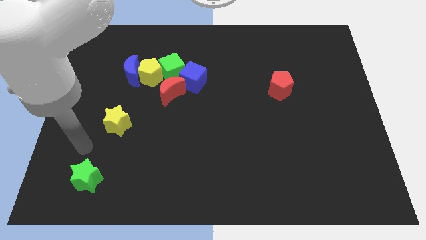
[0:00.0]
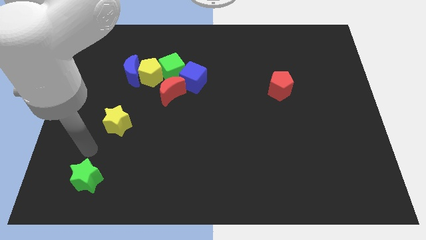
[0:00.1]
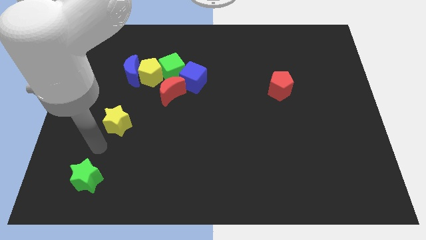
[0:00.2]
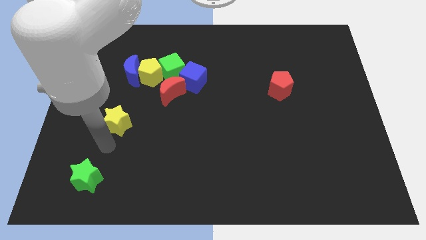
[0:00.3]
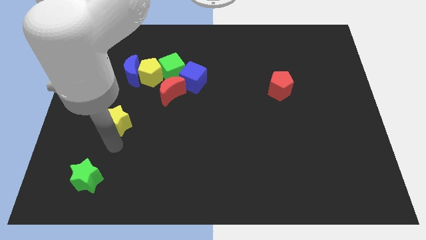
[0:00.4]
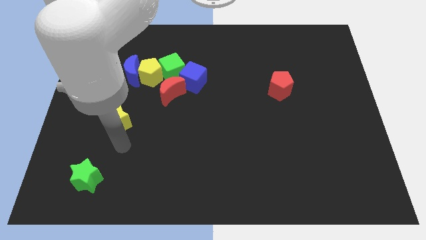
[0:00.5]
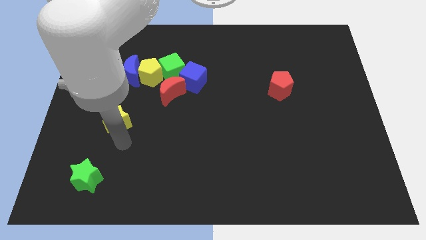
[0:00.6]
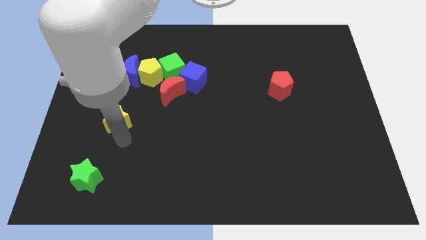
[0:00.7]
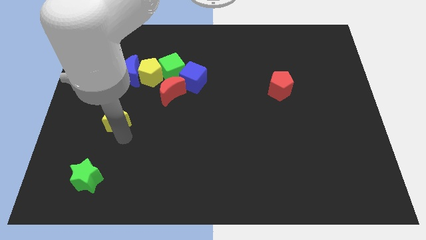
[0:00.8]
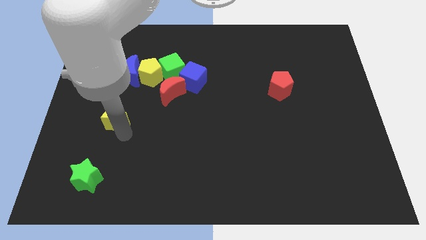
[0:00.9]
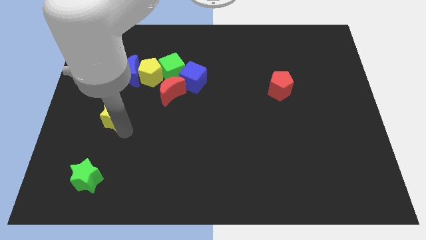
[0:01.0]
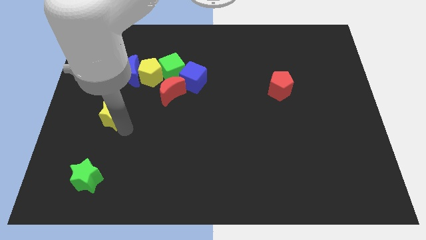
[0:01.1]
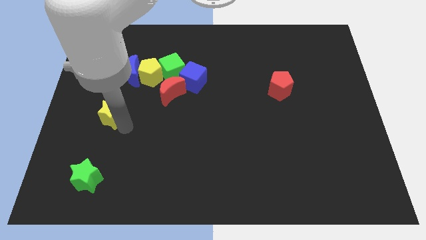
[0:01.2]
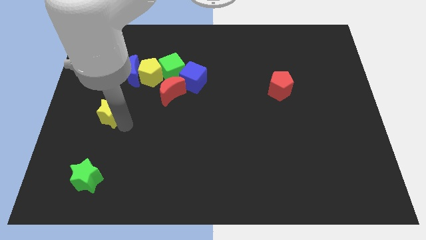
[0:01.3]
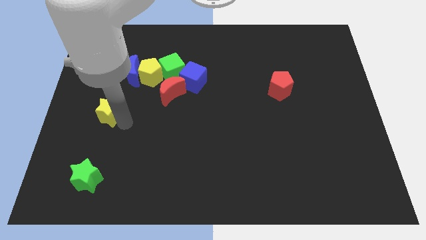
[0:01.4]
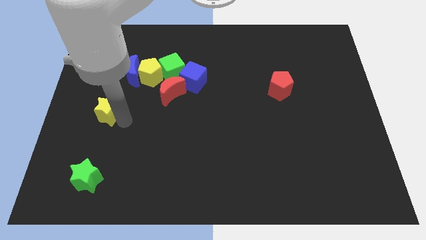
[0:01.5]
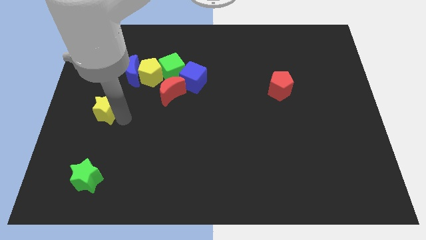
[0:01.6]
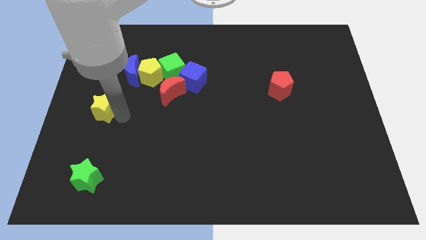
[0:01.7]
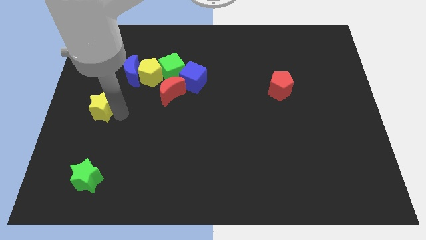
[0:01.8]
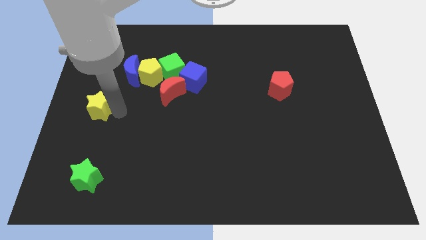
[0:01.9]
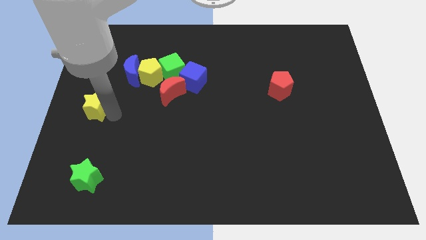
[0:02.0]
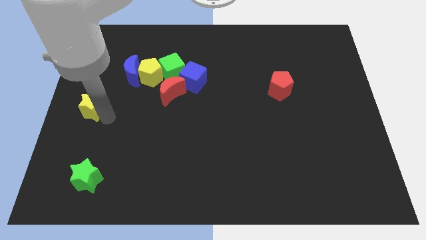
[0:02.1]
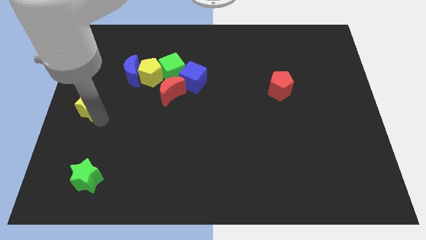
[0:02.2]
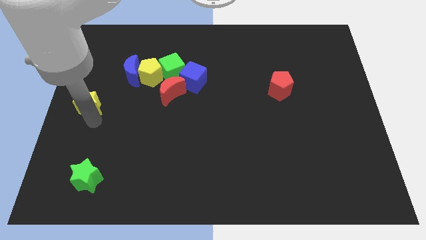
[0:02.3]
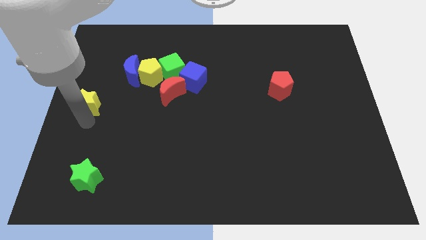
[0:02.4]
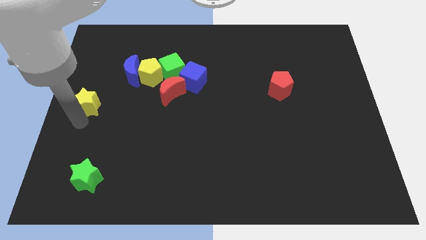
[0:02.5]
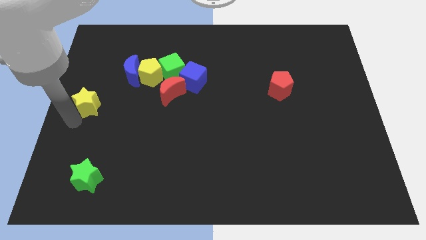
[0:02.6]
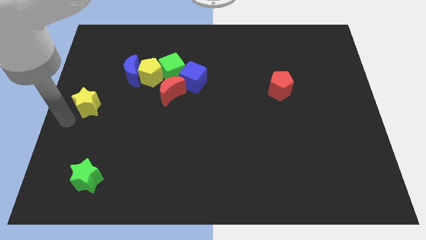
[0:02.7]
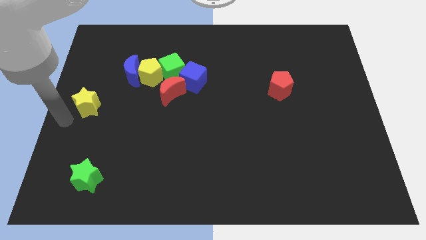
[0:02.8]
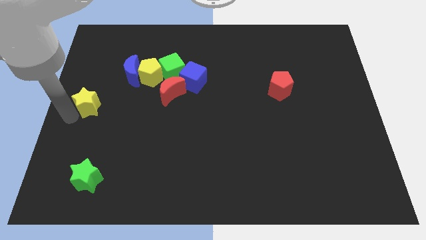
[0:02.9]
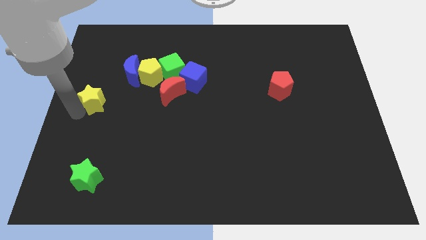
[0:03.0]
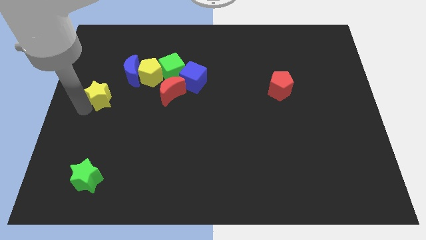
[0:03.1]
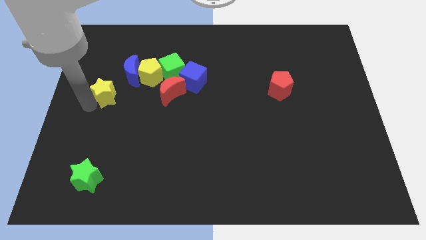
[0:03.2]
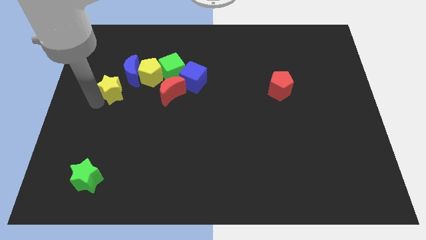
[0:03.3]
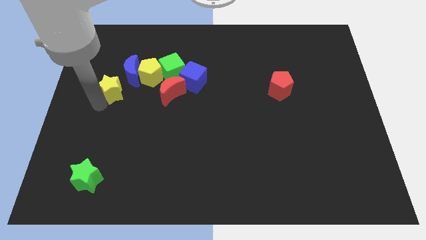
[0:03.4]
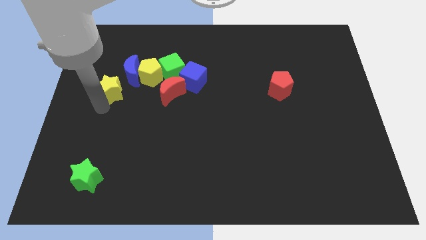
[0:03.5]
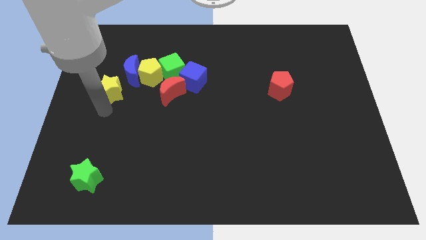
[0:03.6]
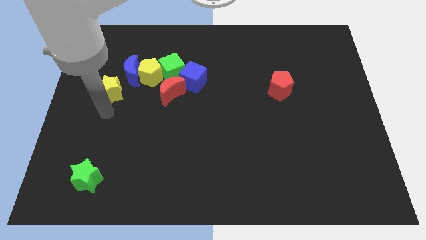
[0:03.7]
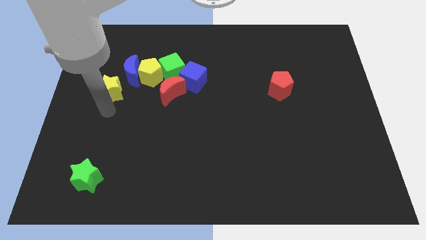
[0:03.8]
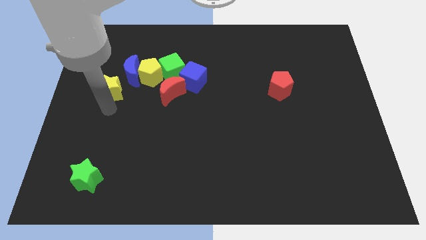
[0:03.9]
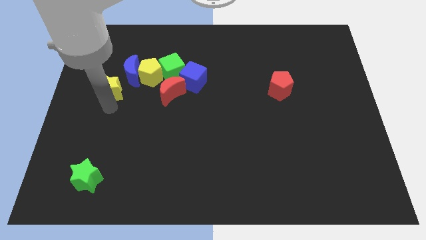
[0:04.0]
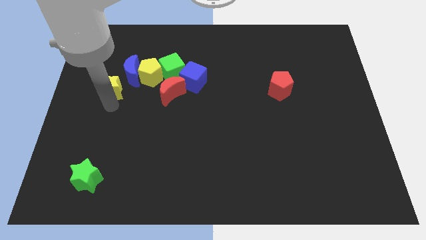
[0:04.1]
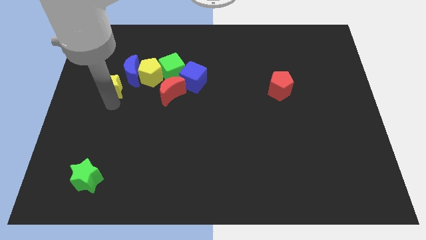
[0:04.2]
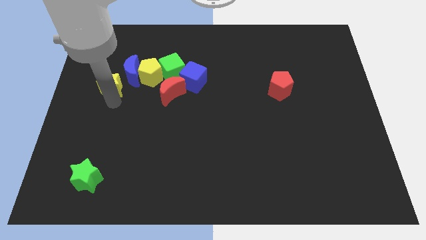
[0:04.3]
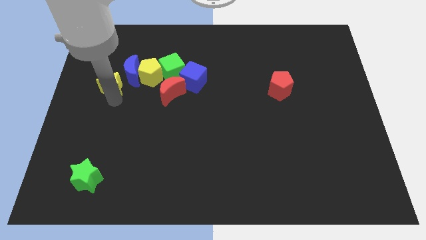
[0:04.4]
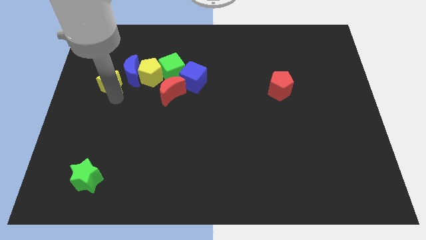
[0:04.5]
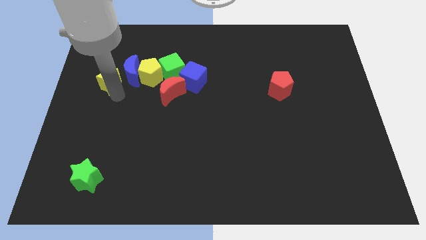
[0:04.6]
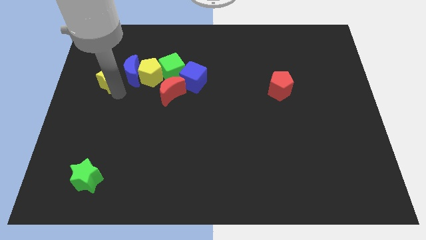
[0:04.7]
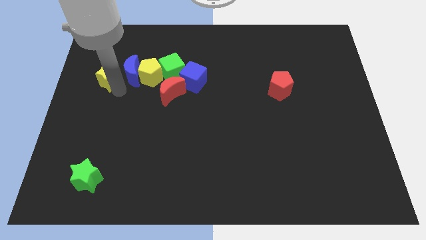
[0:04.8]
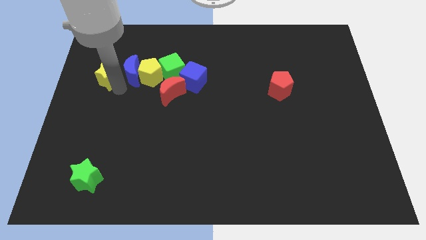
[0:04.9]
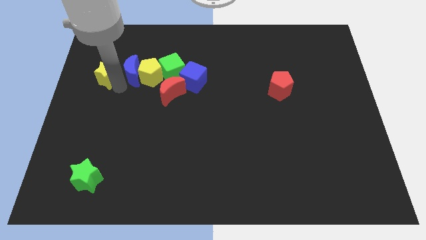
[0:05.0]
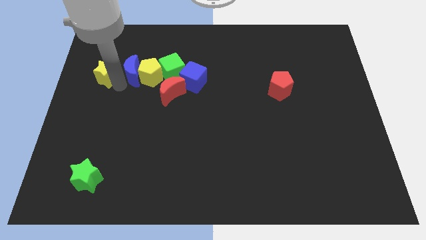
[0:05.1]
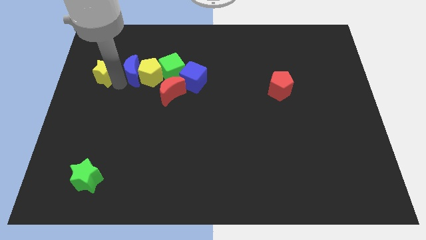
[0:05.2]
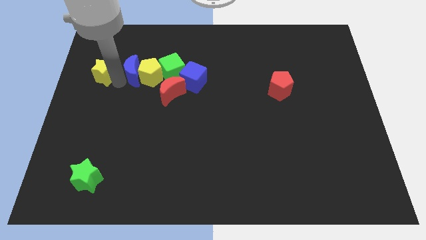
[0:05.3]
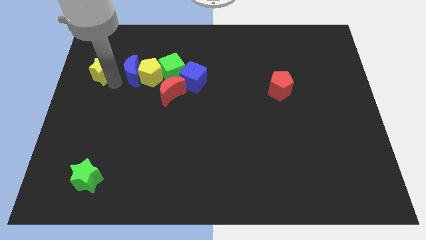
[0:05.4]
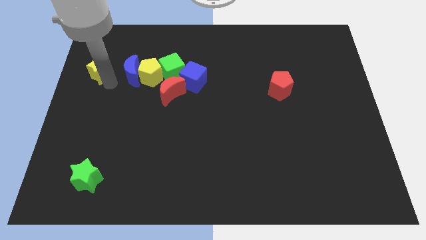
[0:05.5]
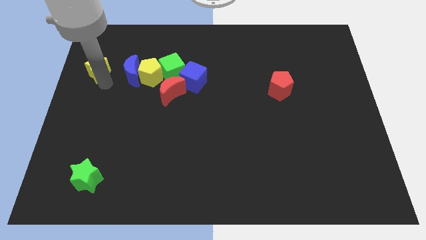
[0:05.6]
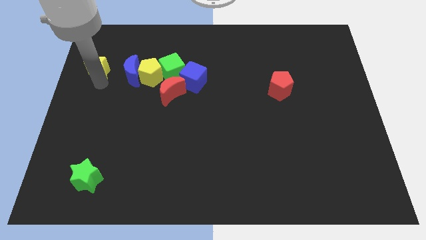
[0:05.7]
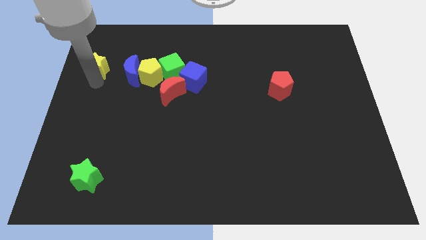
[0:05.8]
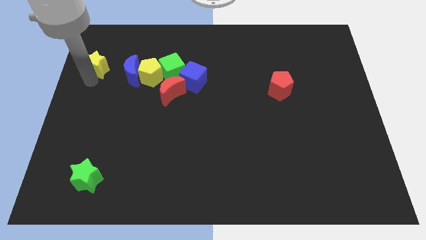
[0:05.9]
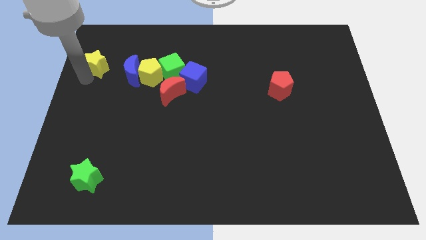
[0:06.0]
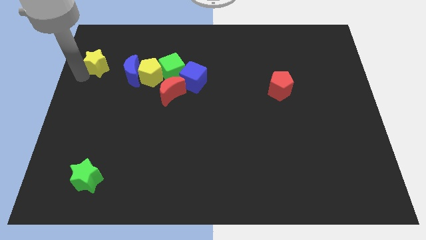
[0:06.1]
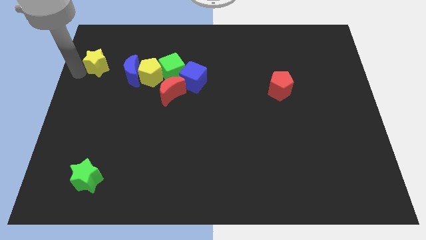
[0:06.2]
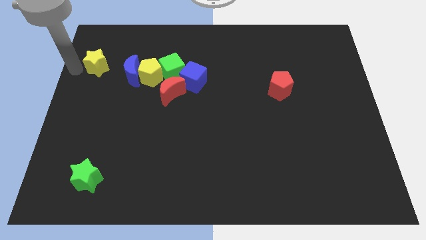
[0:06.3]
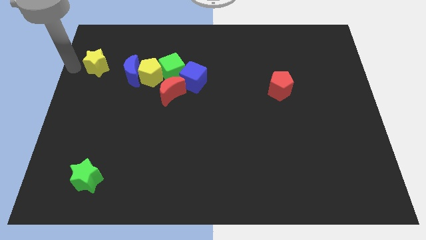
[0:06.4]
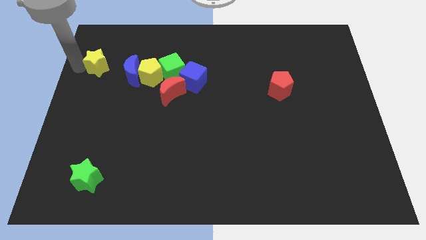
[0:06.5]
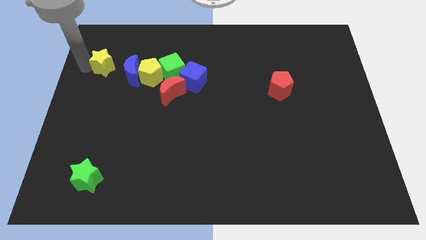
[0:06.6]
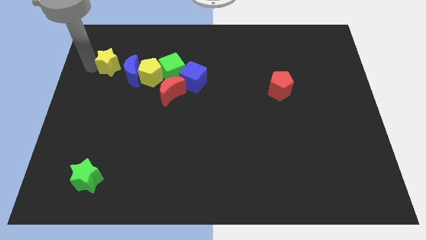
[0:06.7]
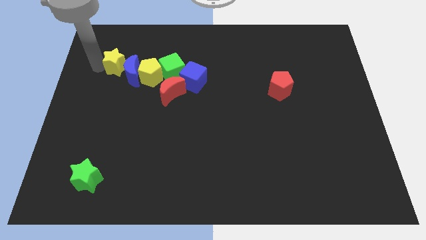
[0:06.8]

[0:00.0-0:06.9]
push the yellow star diagonally up and to the left of the yellow pentagon

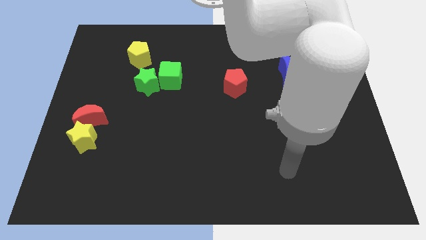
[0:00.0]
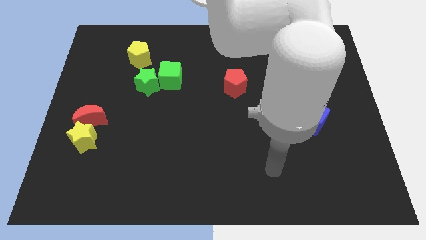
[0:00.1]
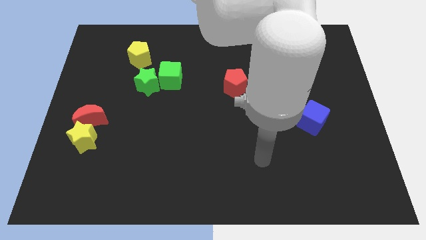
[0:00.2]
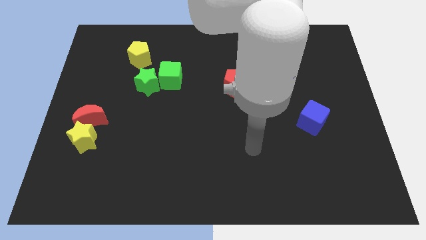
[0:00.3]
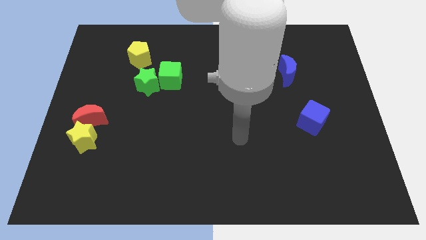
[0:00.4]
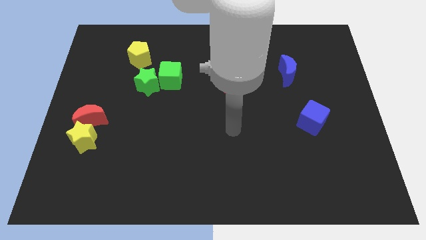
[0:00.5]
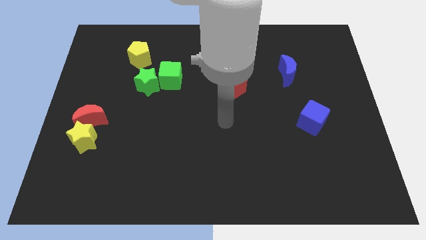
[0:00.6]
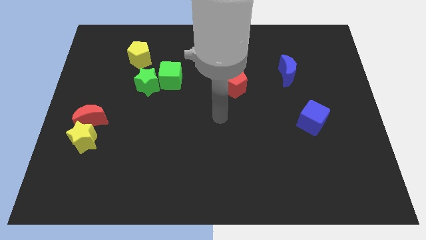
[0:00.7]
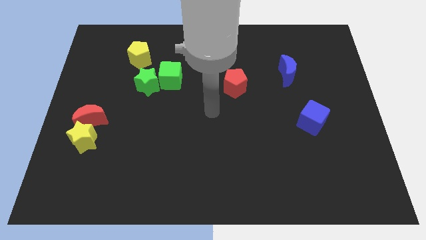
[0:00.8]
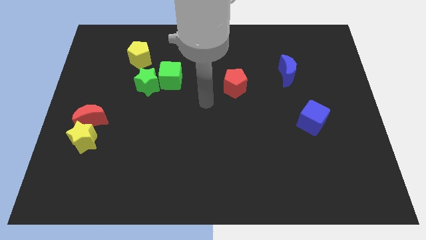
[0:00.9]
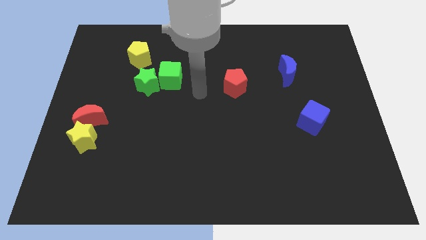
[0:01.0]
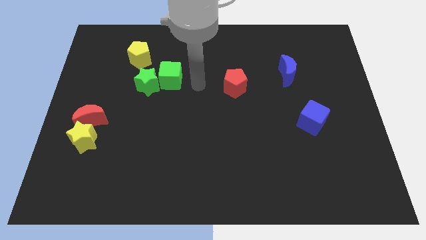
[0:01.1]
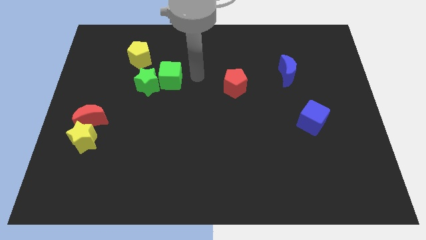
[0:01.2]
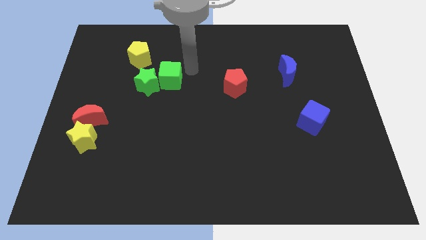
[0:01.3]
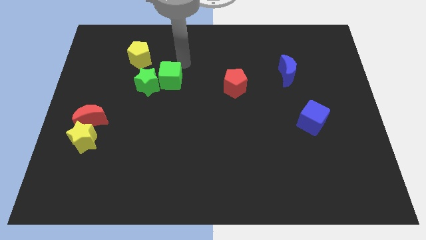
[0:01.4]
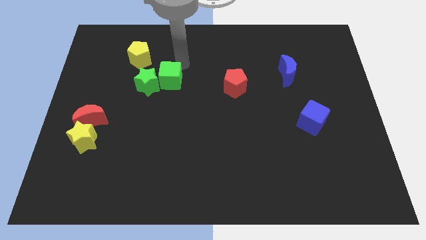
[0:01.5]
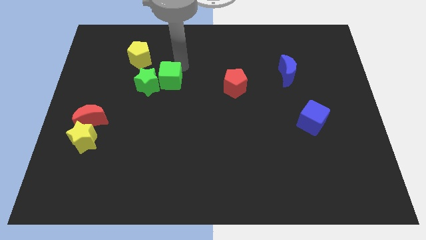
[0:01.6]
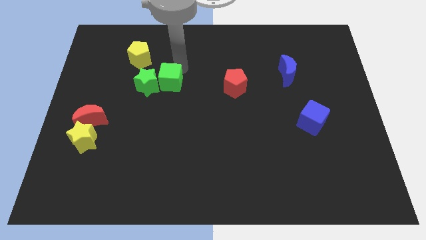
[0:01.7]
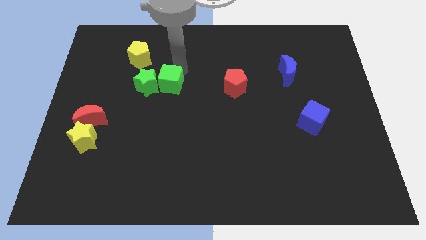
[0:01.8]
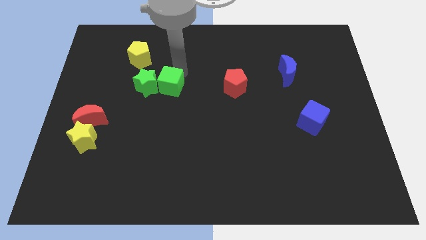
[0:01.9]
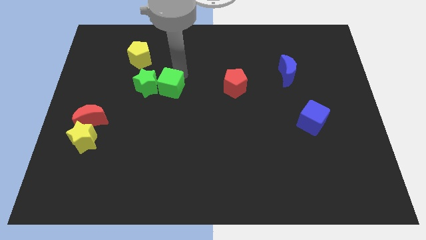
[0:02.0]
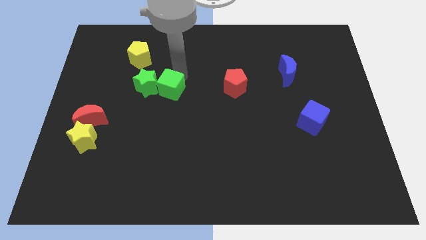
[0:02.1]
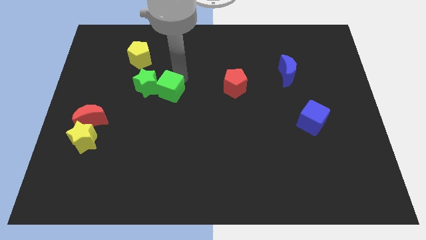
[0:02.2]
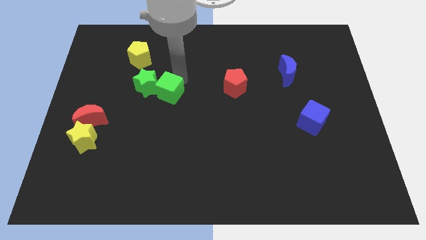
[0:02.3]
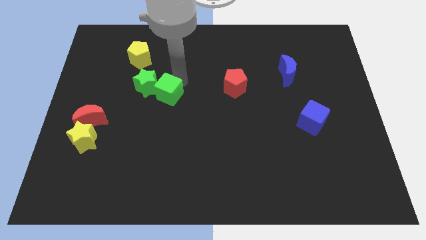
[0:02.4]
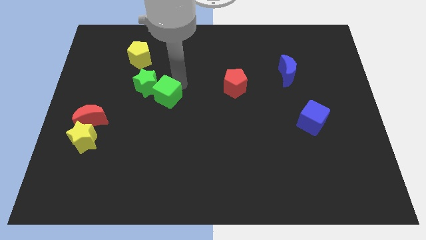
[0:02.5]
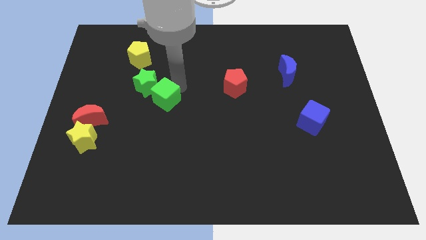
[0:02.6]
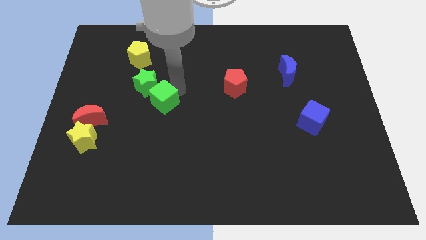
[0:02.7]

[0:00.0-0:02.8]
push the green cube to the bottom side of the green star
